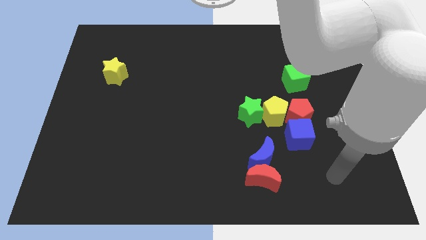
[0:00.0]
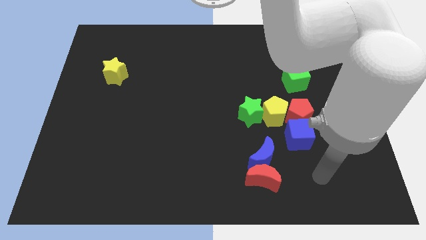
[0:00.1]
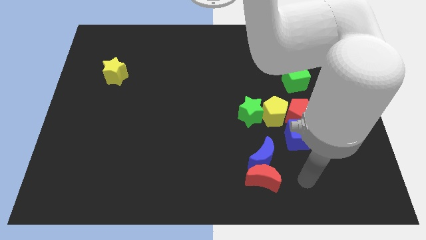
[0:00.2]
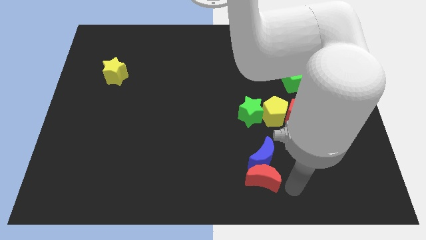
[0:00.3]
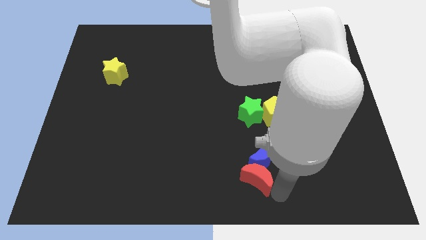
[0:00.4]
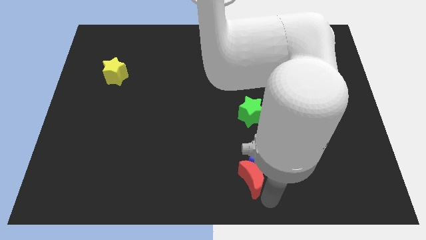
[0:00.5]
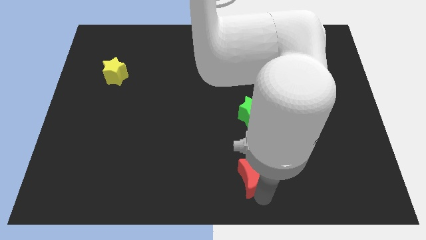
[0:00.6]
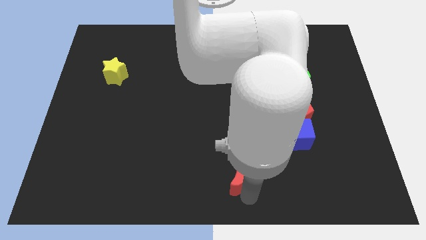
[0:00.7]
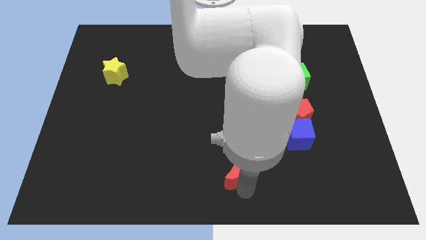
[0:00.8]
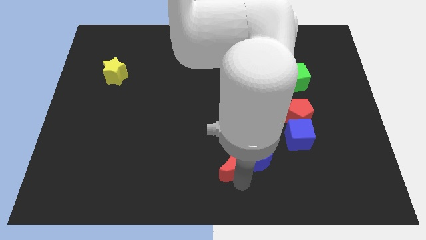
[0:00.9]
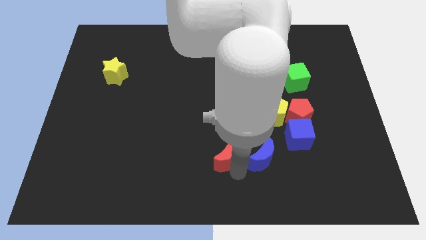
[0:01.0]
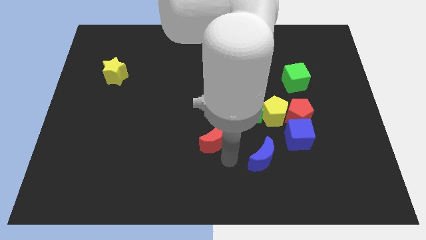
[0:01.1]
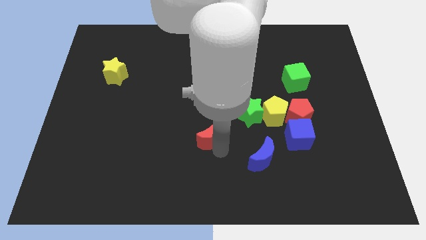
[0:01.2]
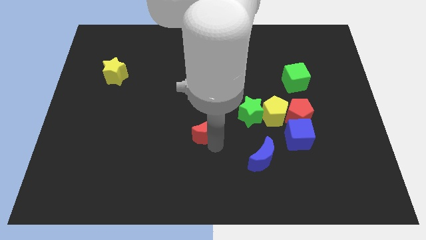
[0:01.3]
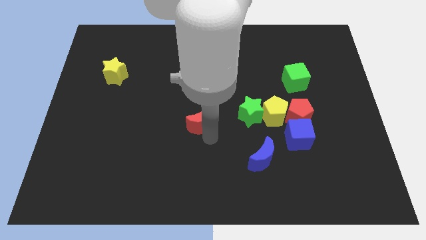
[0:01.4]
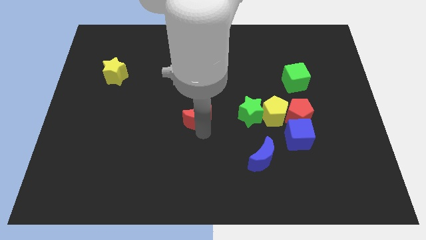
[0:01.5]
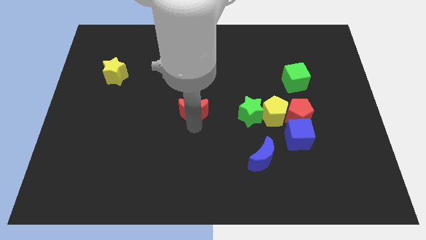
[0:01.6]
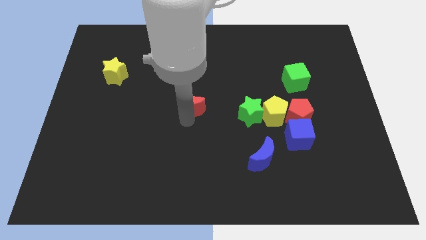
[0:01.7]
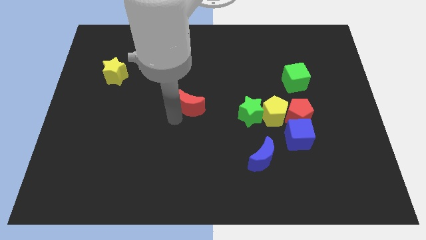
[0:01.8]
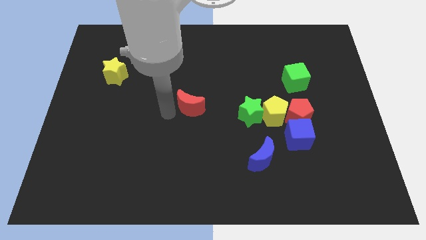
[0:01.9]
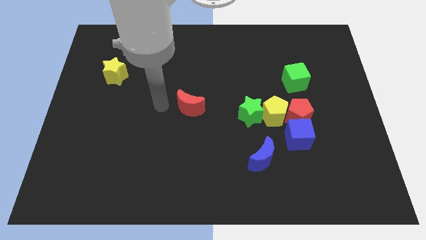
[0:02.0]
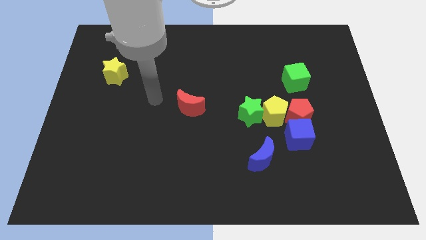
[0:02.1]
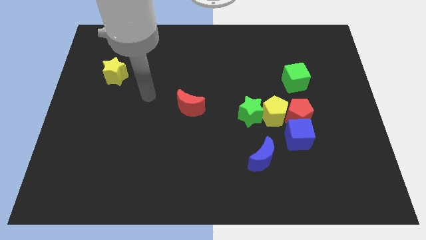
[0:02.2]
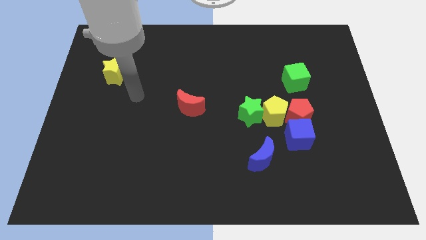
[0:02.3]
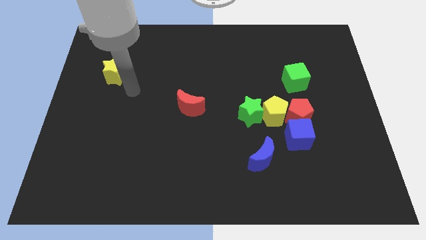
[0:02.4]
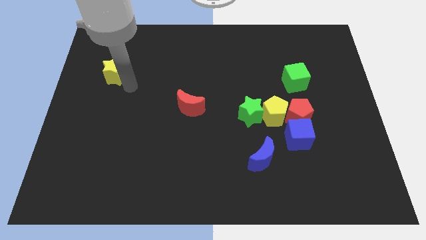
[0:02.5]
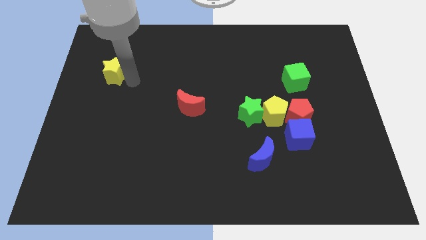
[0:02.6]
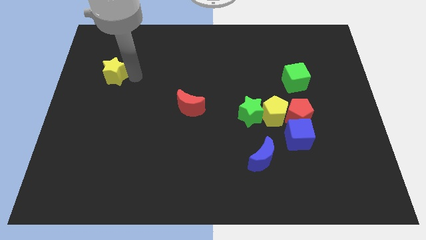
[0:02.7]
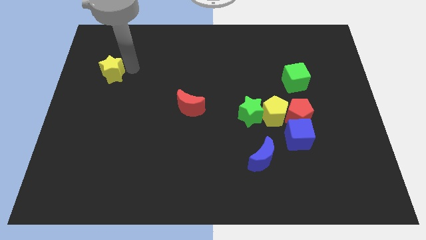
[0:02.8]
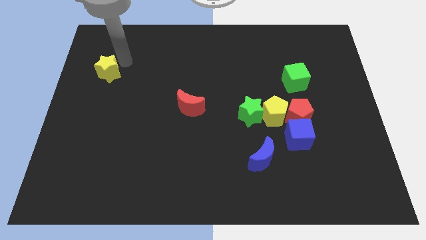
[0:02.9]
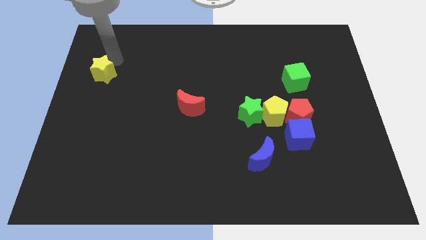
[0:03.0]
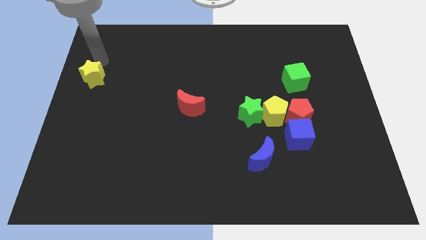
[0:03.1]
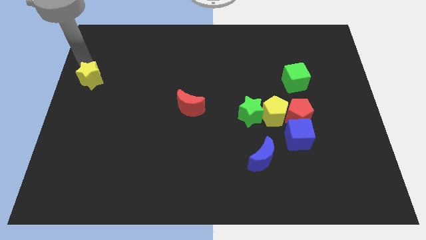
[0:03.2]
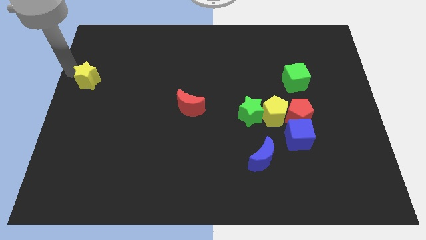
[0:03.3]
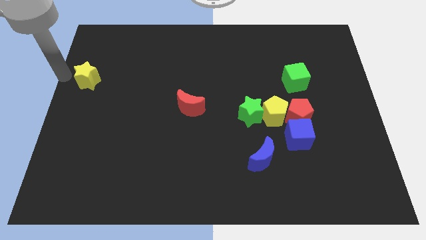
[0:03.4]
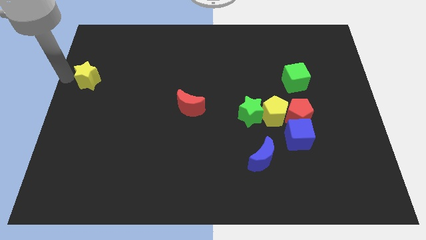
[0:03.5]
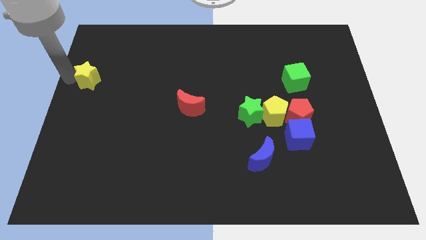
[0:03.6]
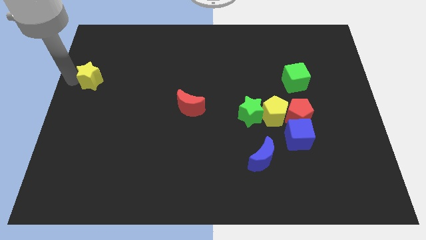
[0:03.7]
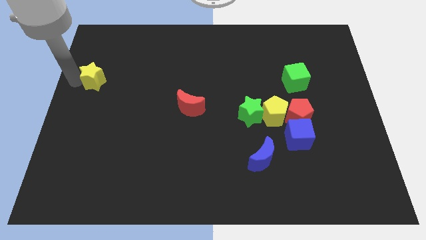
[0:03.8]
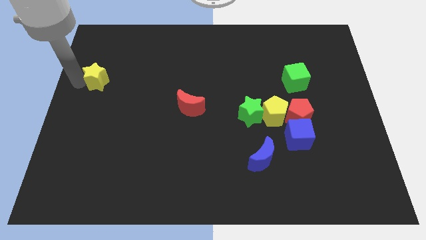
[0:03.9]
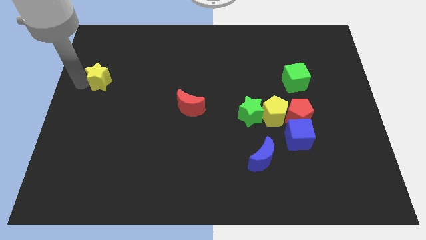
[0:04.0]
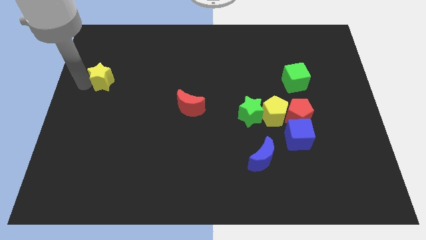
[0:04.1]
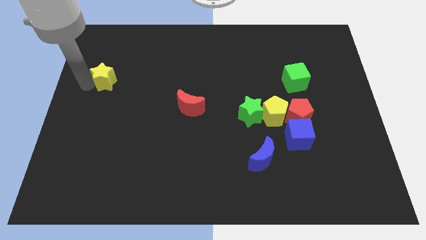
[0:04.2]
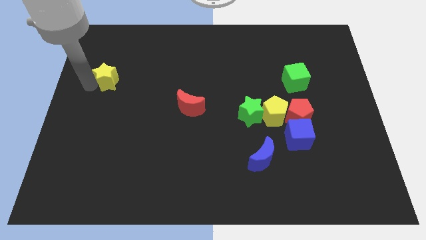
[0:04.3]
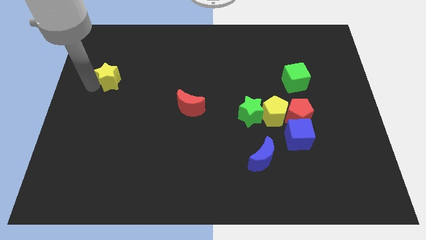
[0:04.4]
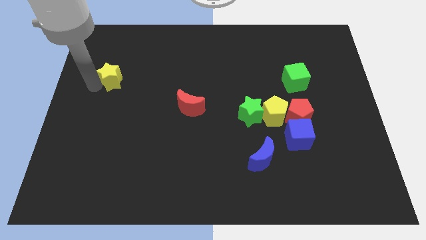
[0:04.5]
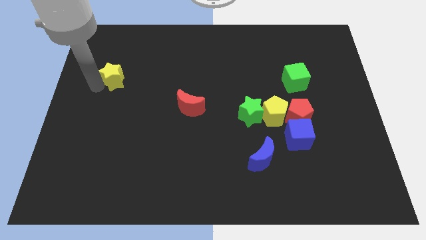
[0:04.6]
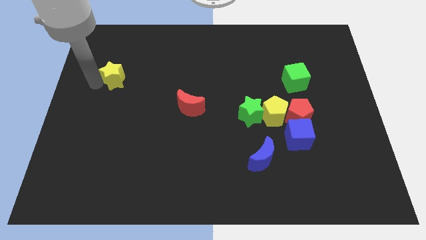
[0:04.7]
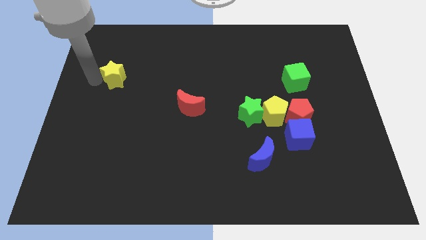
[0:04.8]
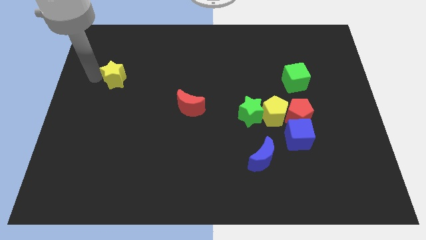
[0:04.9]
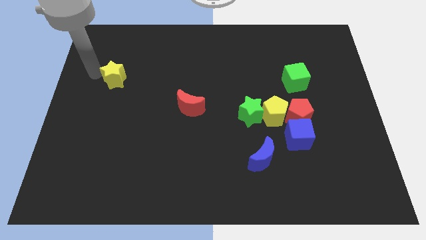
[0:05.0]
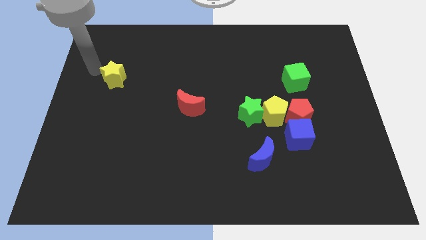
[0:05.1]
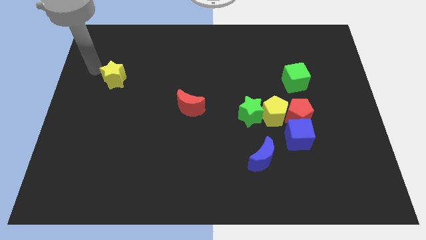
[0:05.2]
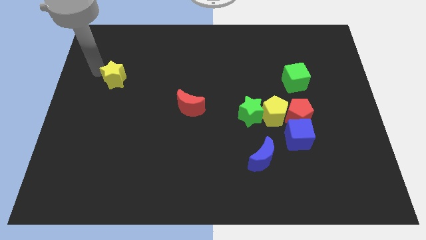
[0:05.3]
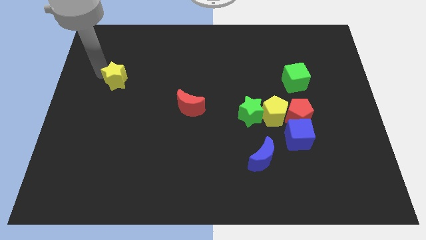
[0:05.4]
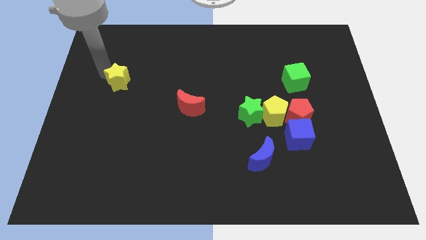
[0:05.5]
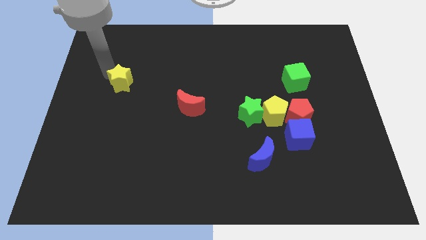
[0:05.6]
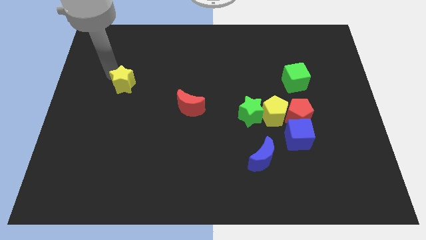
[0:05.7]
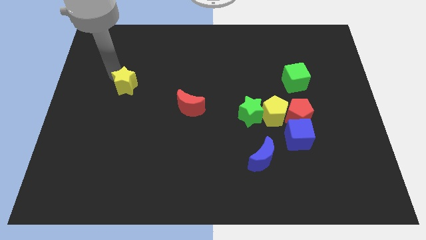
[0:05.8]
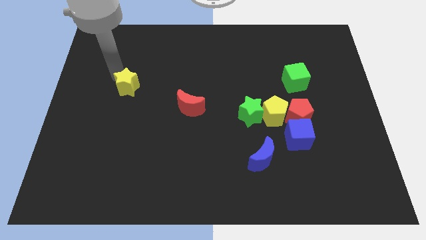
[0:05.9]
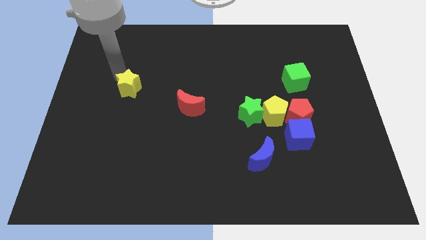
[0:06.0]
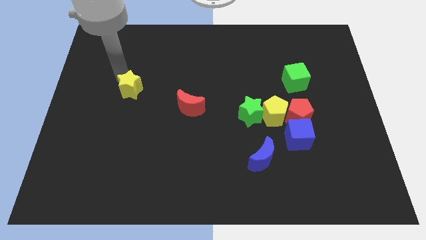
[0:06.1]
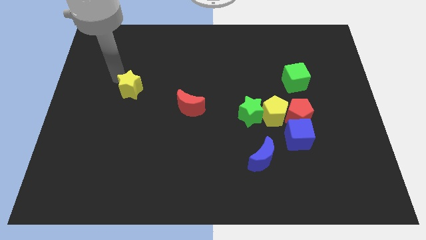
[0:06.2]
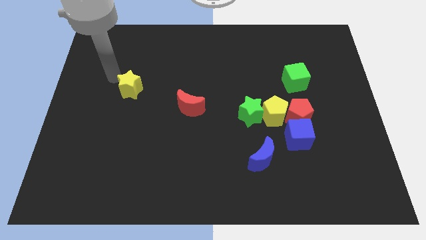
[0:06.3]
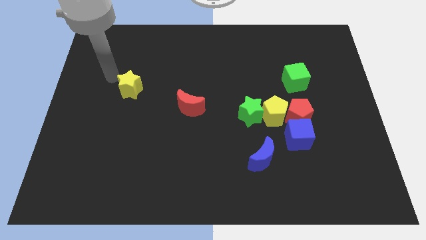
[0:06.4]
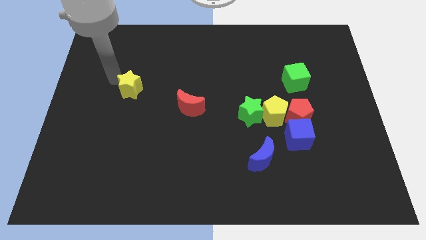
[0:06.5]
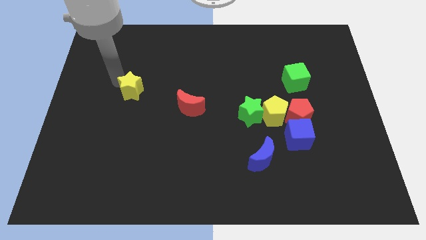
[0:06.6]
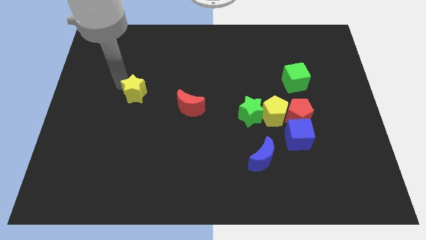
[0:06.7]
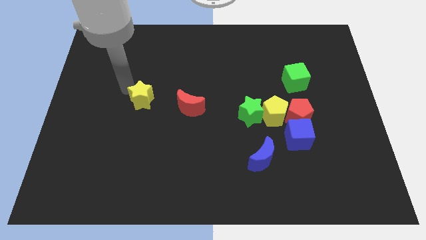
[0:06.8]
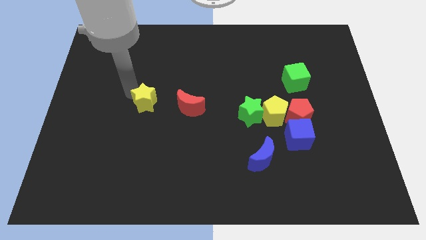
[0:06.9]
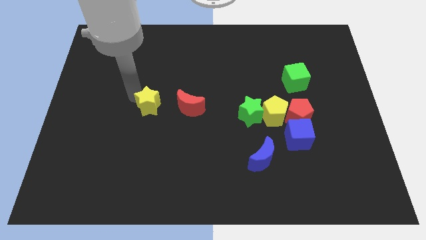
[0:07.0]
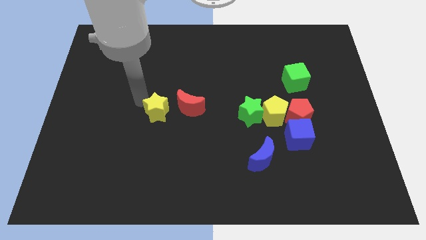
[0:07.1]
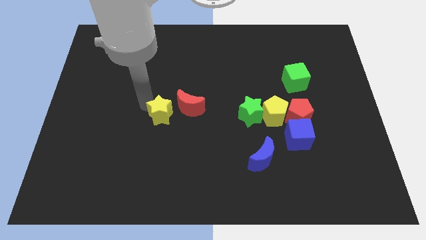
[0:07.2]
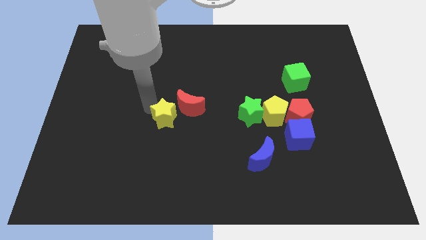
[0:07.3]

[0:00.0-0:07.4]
push the yellow star to the red moon
